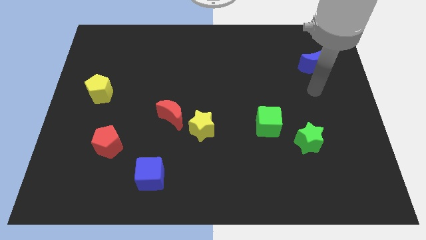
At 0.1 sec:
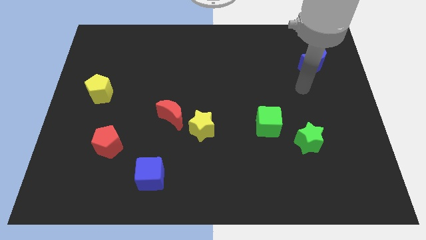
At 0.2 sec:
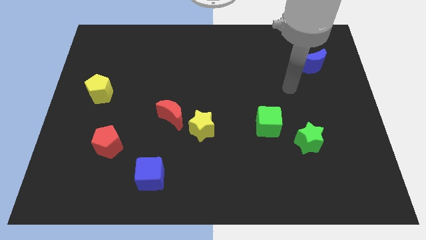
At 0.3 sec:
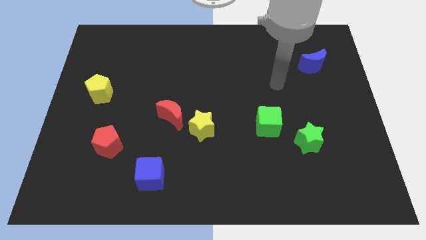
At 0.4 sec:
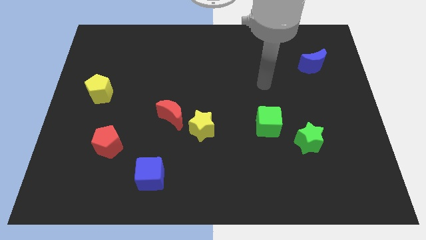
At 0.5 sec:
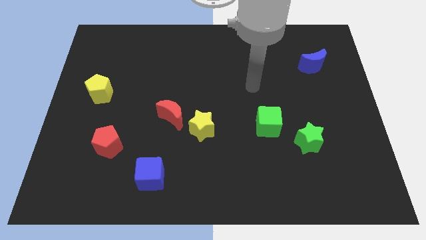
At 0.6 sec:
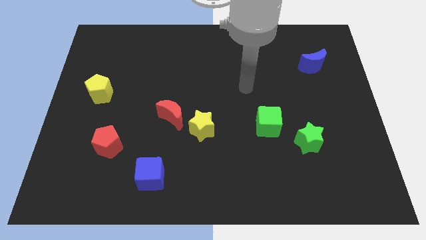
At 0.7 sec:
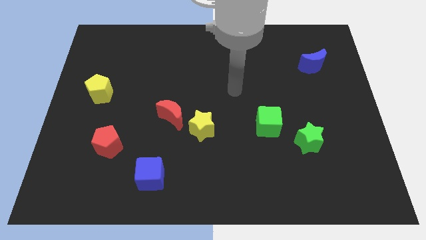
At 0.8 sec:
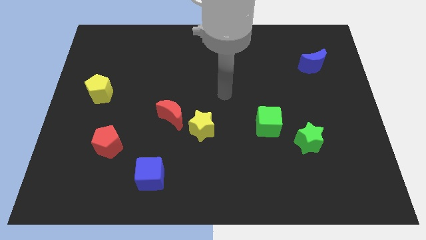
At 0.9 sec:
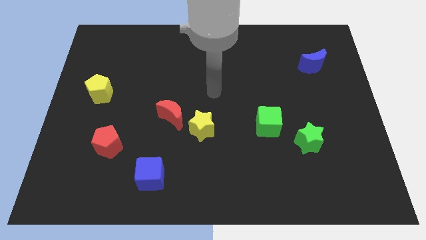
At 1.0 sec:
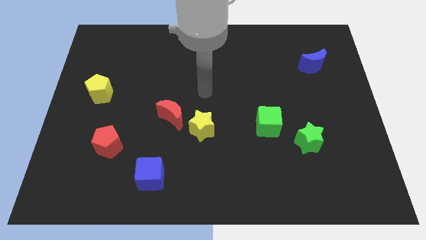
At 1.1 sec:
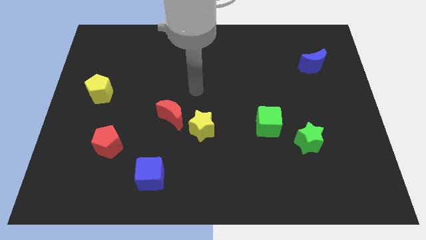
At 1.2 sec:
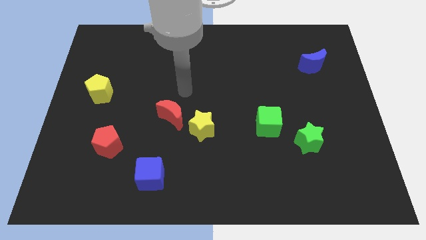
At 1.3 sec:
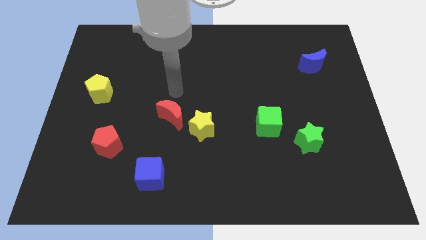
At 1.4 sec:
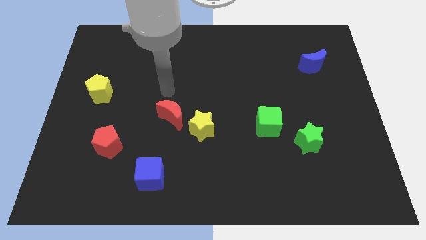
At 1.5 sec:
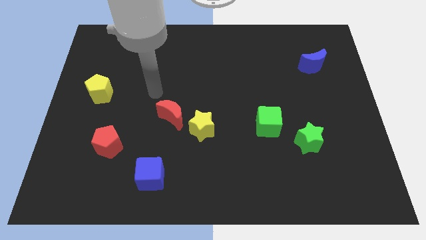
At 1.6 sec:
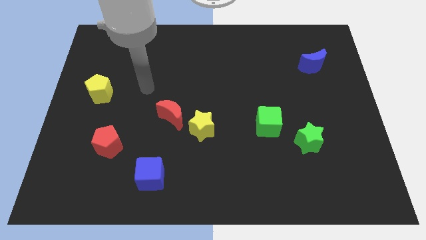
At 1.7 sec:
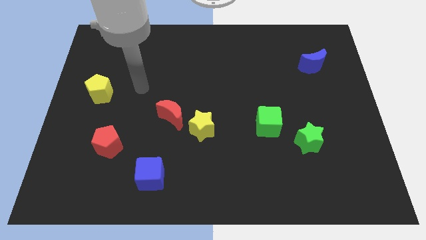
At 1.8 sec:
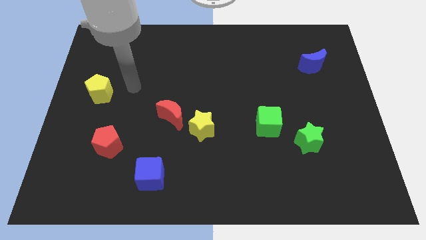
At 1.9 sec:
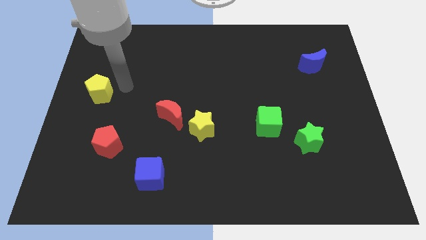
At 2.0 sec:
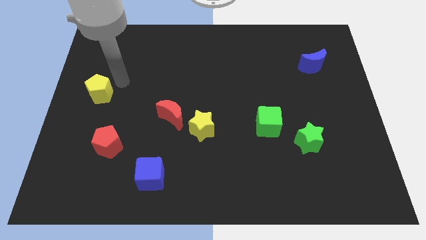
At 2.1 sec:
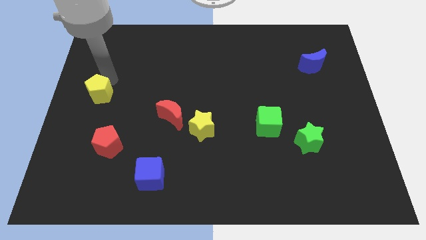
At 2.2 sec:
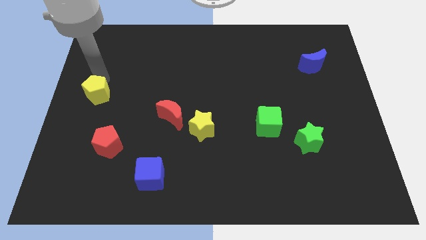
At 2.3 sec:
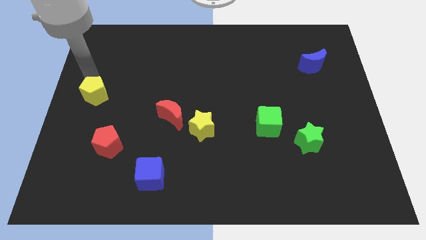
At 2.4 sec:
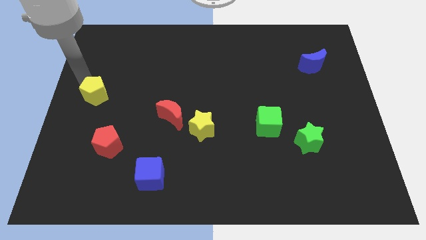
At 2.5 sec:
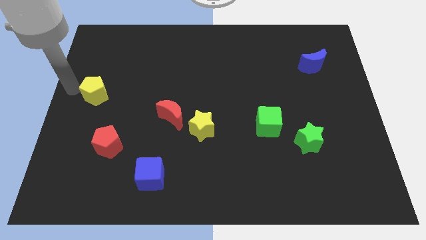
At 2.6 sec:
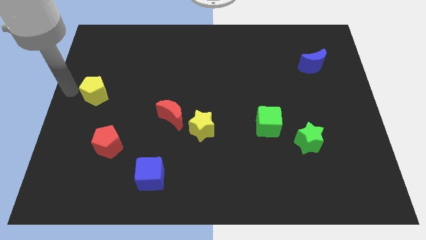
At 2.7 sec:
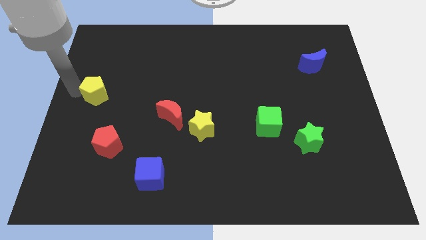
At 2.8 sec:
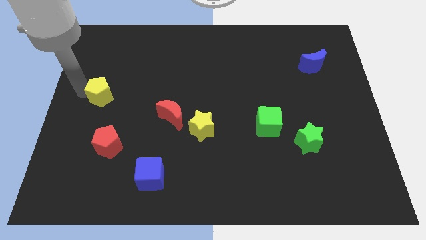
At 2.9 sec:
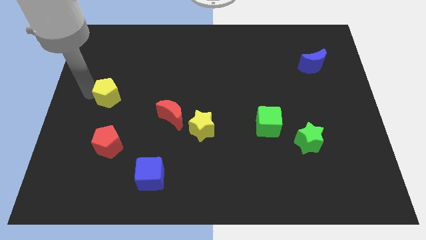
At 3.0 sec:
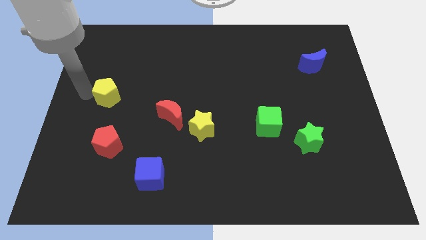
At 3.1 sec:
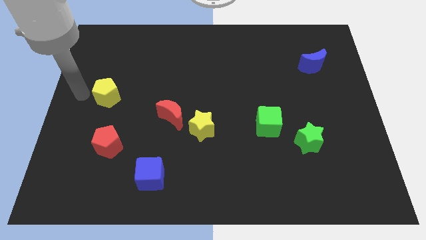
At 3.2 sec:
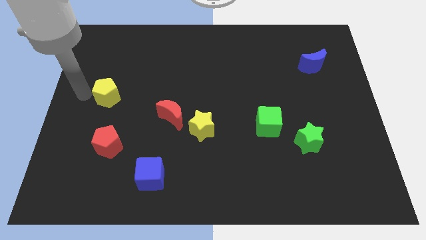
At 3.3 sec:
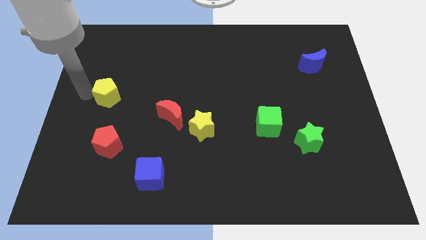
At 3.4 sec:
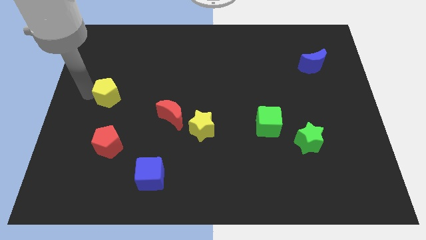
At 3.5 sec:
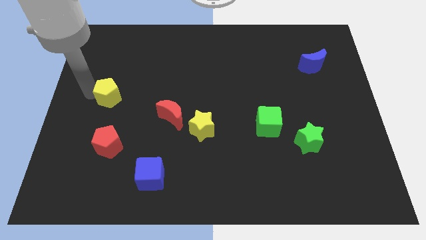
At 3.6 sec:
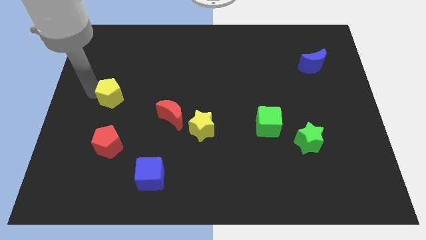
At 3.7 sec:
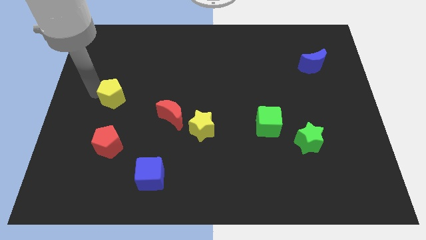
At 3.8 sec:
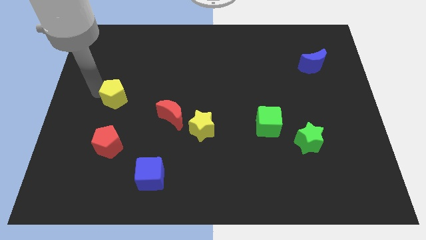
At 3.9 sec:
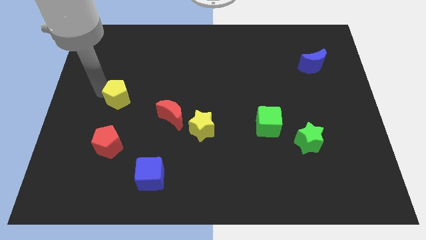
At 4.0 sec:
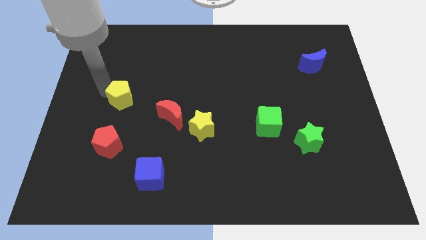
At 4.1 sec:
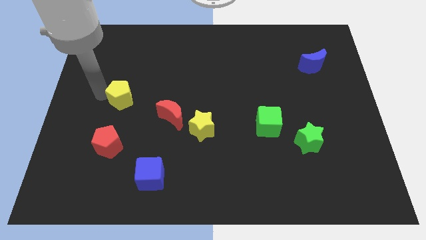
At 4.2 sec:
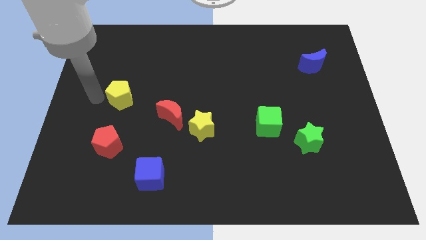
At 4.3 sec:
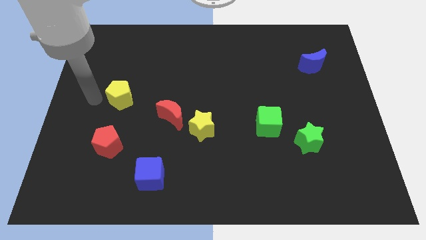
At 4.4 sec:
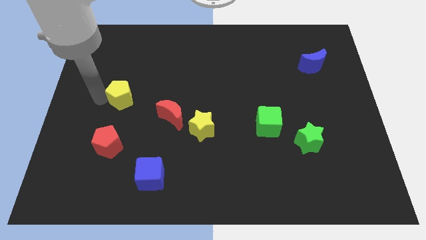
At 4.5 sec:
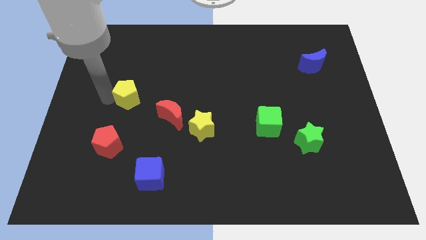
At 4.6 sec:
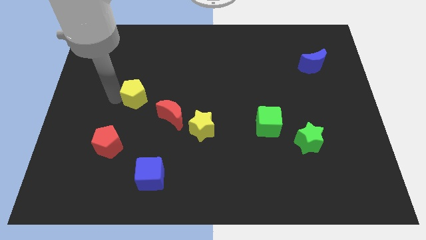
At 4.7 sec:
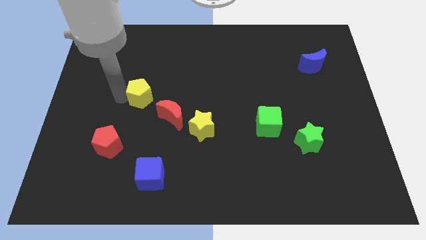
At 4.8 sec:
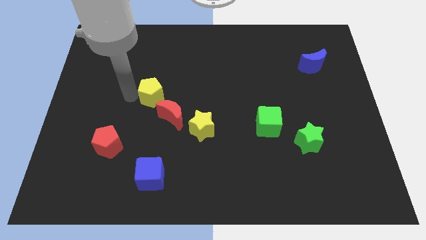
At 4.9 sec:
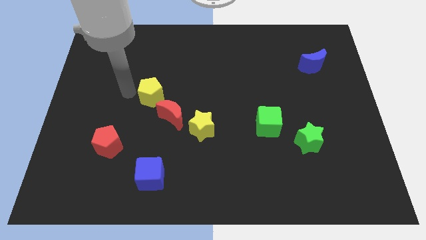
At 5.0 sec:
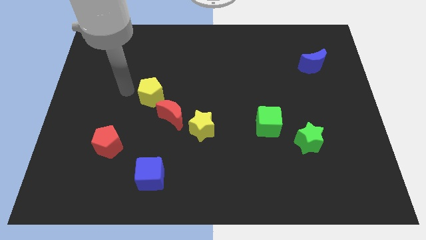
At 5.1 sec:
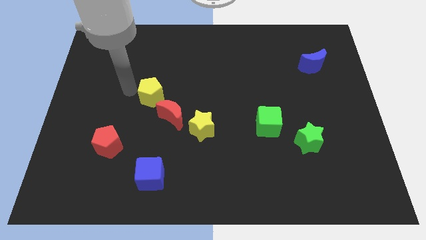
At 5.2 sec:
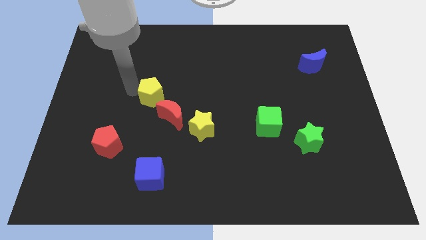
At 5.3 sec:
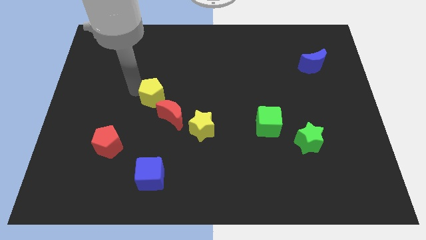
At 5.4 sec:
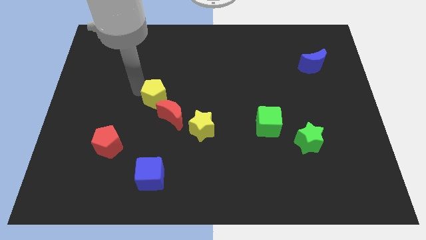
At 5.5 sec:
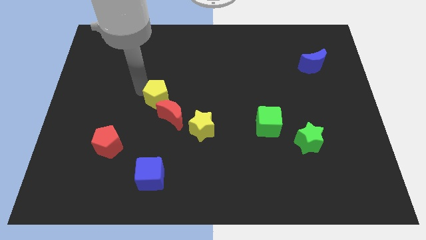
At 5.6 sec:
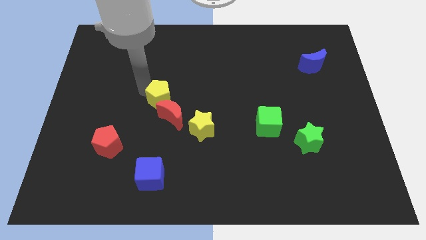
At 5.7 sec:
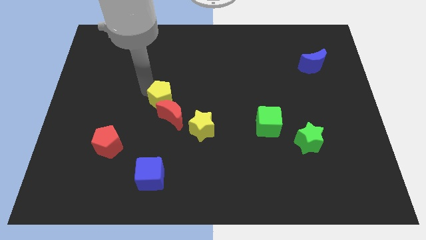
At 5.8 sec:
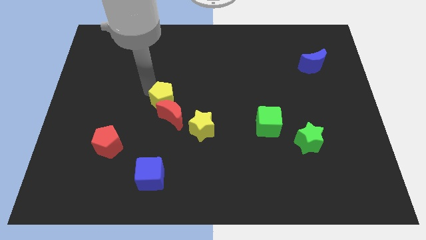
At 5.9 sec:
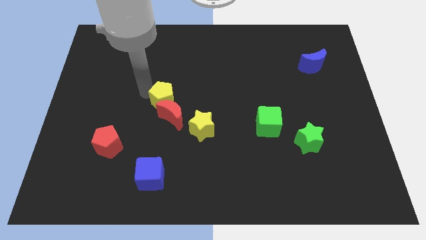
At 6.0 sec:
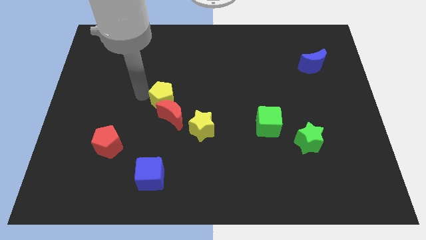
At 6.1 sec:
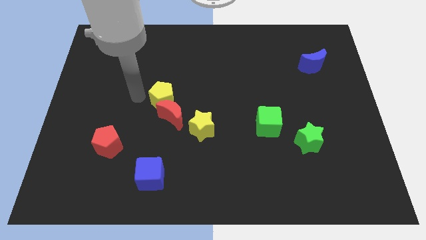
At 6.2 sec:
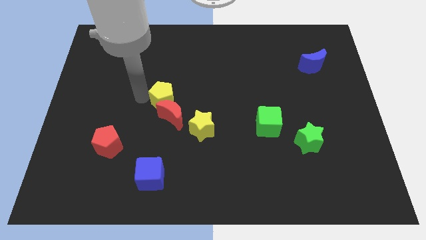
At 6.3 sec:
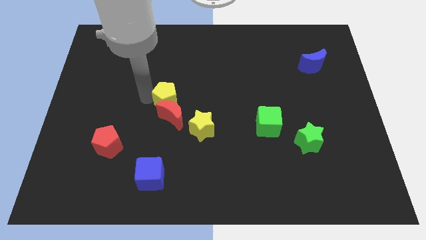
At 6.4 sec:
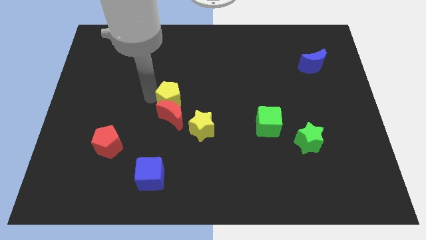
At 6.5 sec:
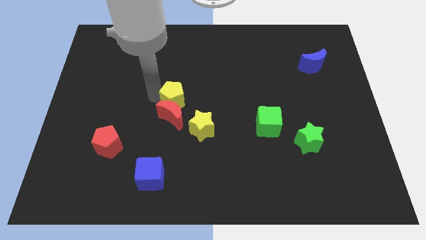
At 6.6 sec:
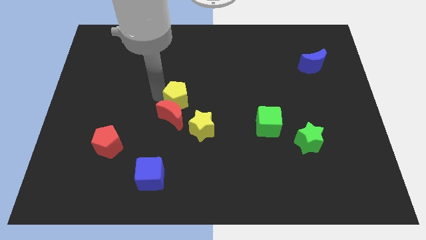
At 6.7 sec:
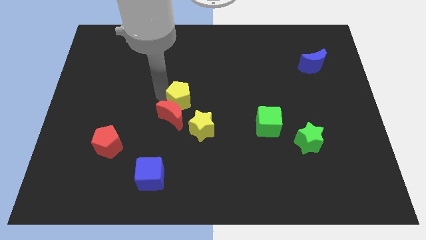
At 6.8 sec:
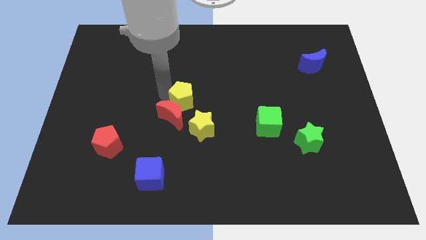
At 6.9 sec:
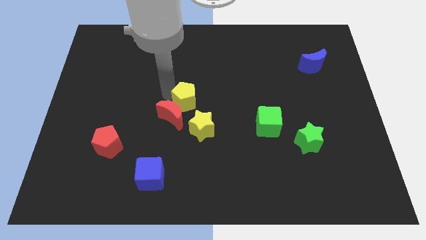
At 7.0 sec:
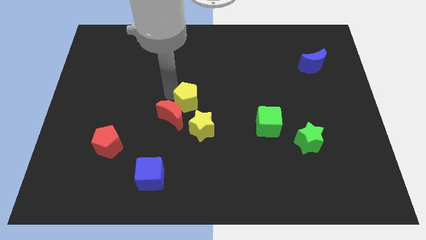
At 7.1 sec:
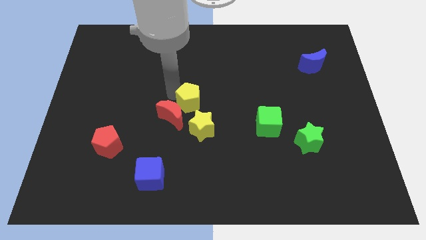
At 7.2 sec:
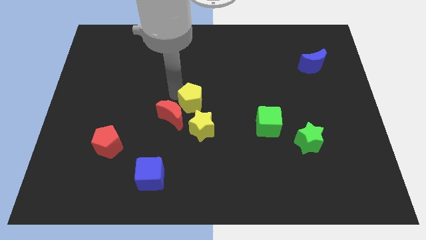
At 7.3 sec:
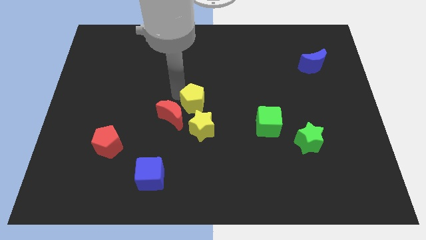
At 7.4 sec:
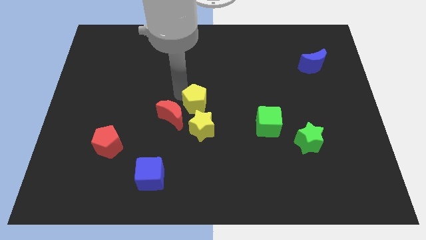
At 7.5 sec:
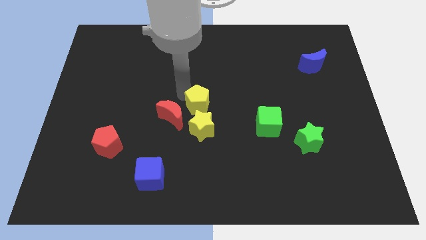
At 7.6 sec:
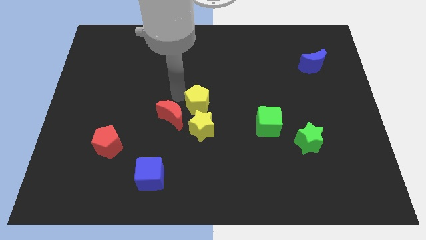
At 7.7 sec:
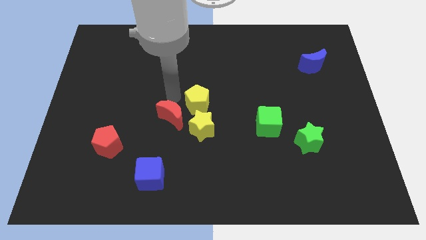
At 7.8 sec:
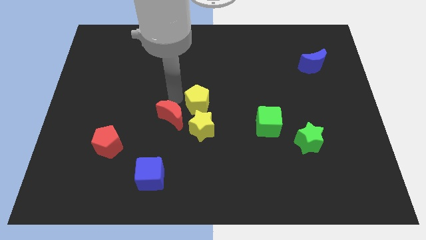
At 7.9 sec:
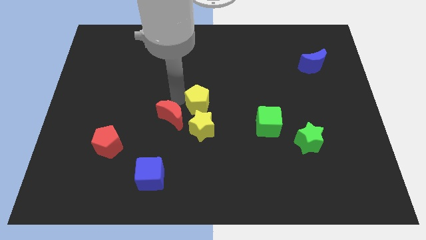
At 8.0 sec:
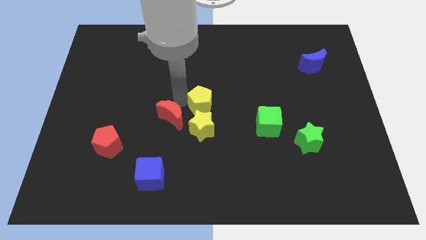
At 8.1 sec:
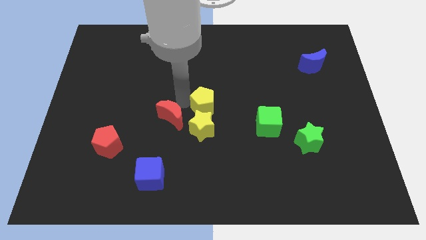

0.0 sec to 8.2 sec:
push the yellow pentagon to the top right side of the yellow star
